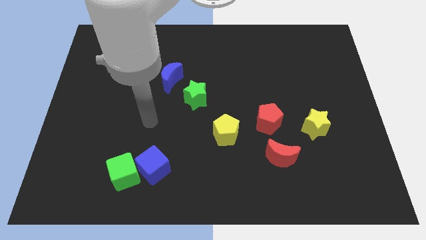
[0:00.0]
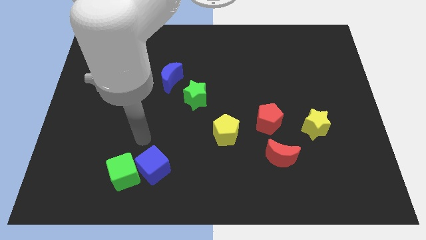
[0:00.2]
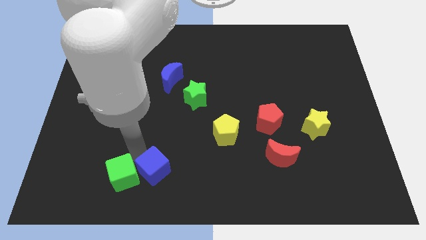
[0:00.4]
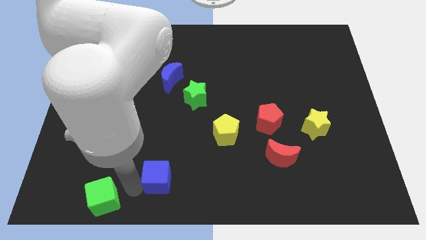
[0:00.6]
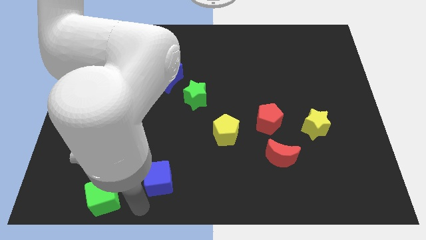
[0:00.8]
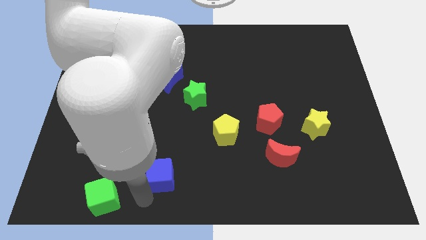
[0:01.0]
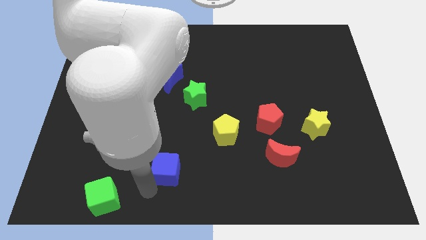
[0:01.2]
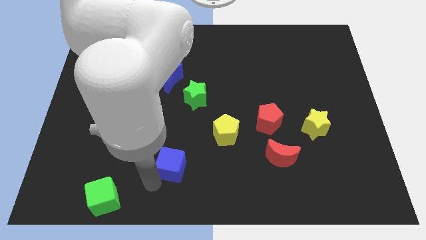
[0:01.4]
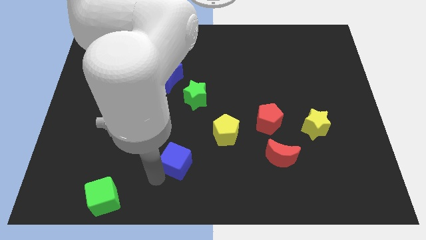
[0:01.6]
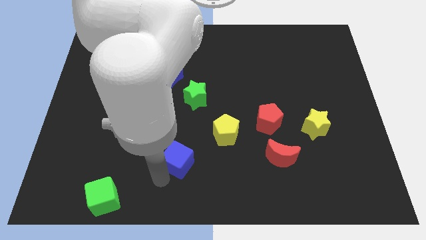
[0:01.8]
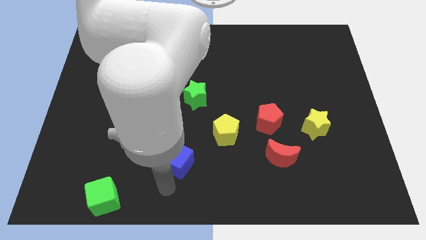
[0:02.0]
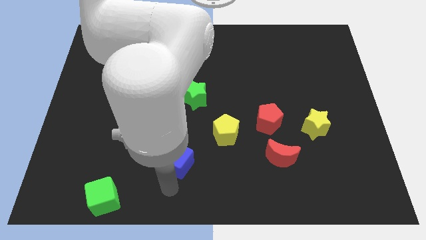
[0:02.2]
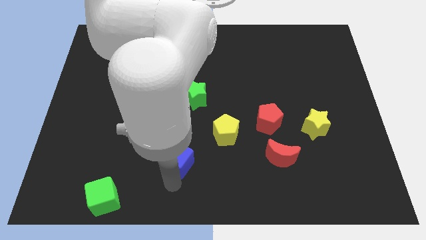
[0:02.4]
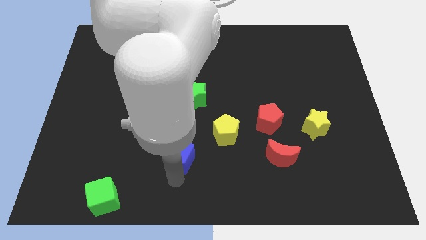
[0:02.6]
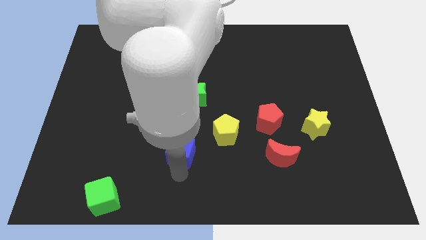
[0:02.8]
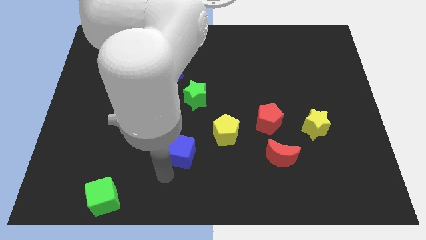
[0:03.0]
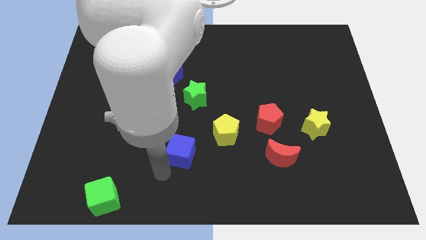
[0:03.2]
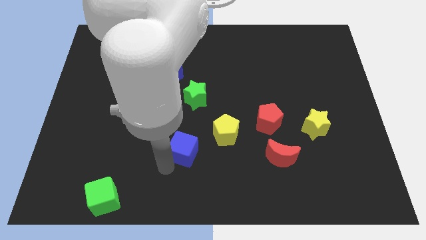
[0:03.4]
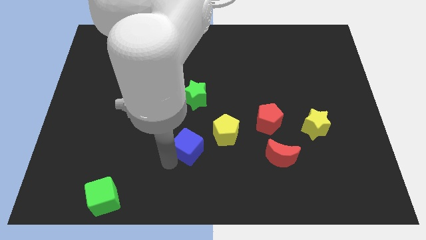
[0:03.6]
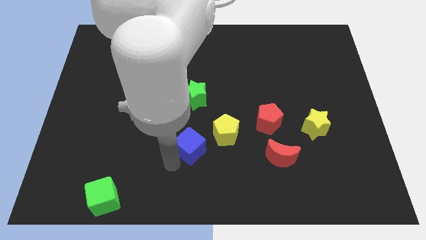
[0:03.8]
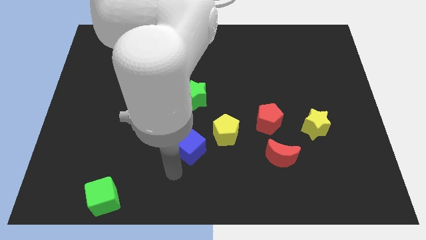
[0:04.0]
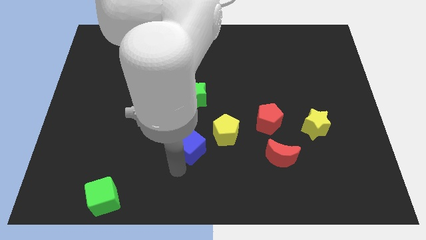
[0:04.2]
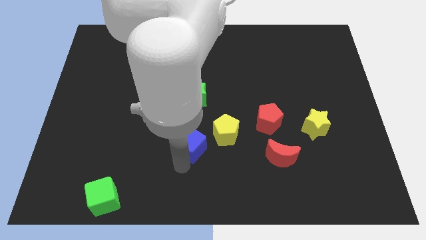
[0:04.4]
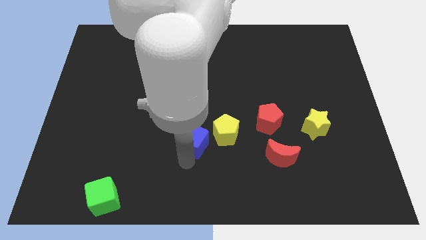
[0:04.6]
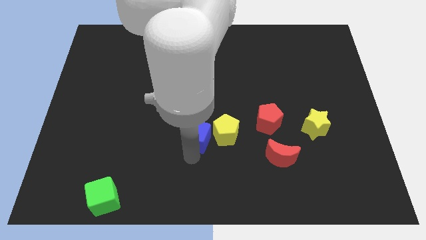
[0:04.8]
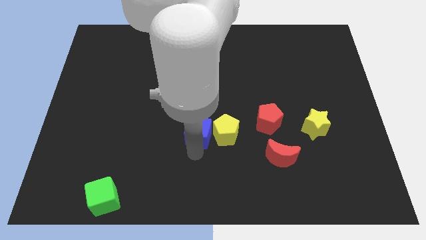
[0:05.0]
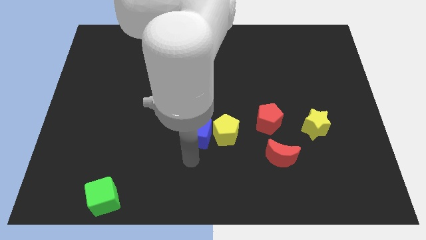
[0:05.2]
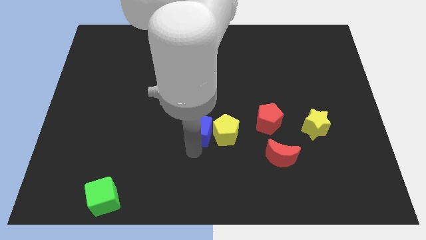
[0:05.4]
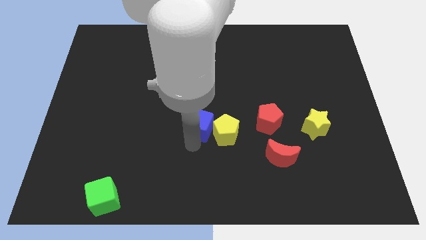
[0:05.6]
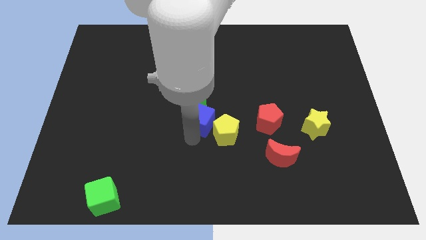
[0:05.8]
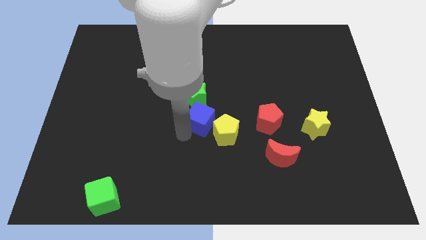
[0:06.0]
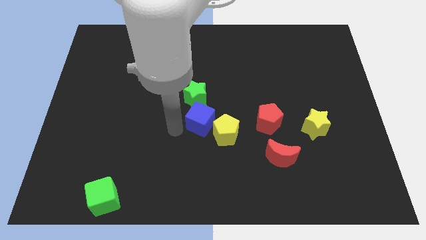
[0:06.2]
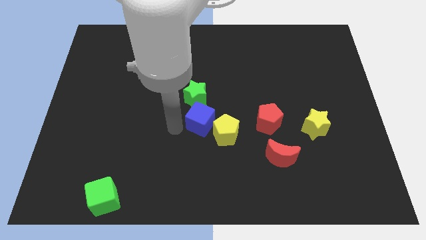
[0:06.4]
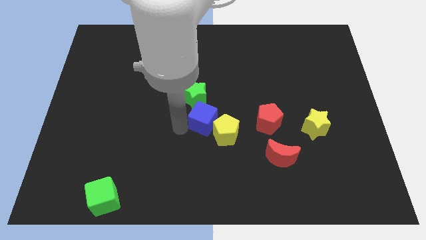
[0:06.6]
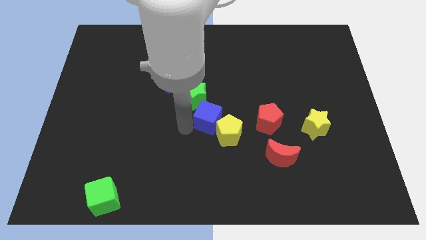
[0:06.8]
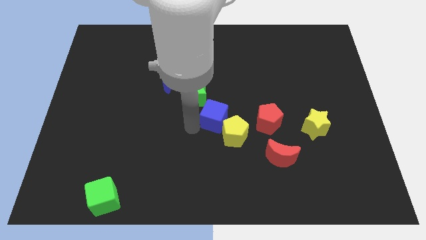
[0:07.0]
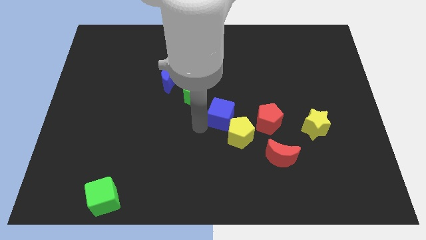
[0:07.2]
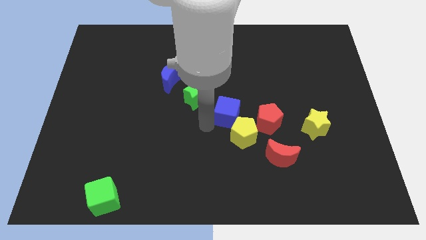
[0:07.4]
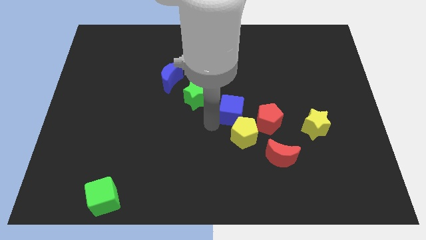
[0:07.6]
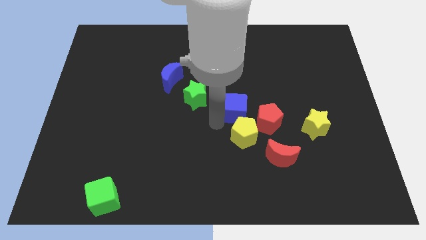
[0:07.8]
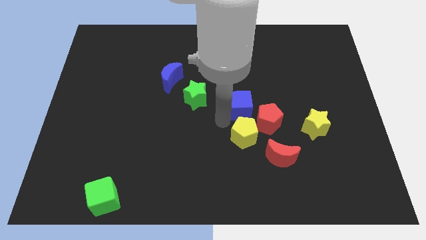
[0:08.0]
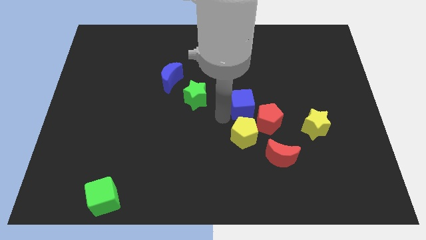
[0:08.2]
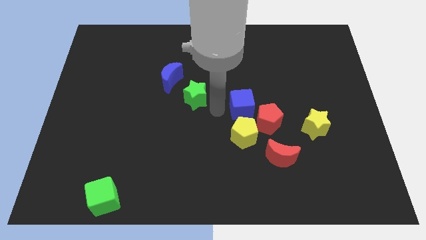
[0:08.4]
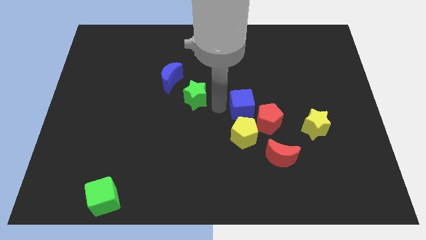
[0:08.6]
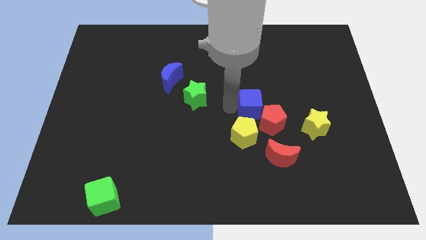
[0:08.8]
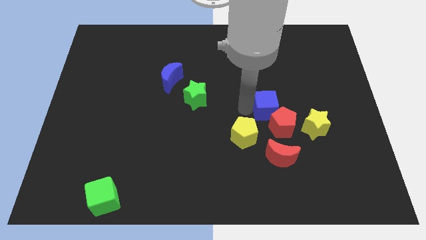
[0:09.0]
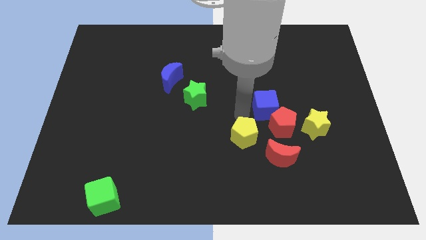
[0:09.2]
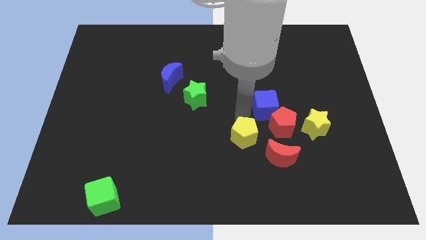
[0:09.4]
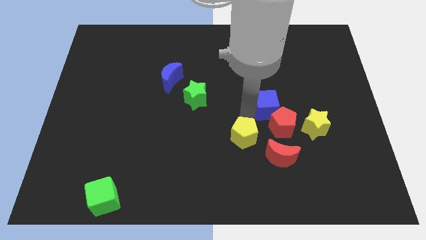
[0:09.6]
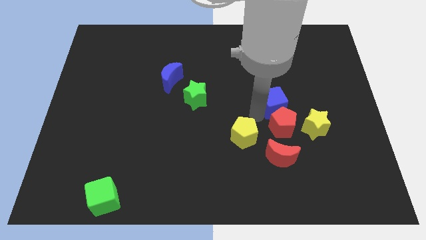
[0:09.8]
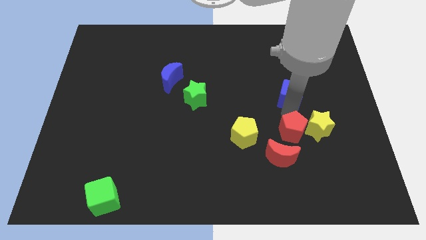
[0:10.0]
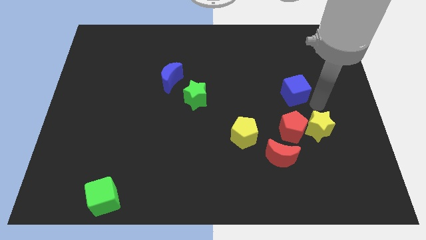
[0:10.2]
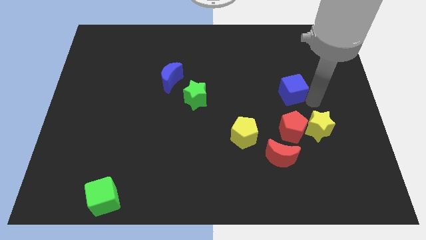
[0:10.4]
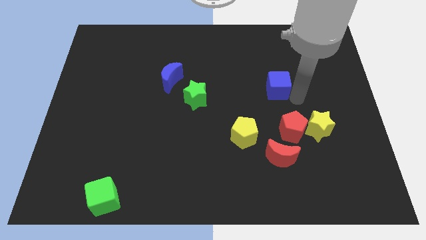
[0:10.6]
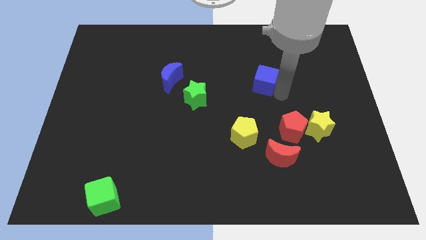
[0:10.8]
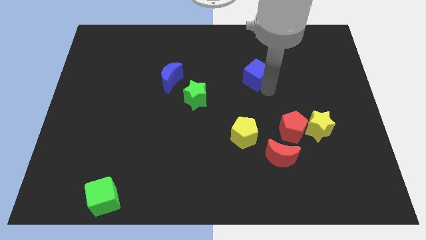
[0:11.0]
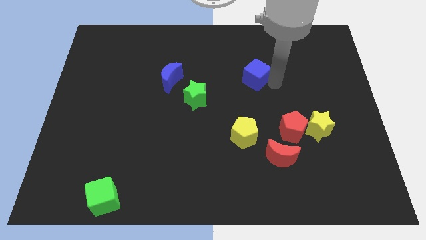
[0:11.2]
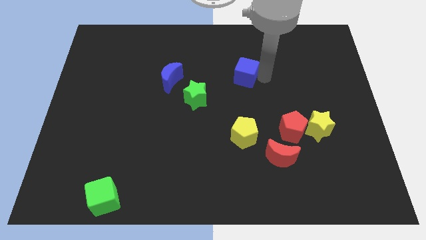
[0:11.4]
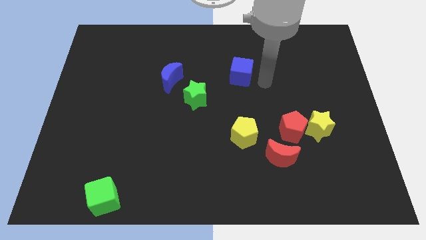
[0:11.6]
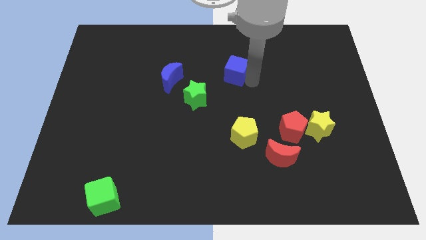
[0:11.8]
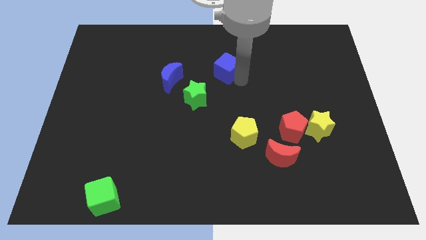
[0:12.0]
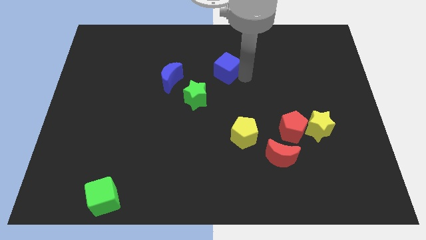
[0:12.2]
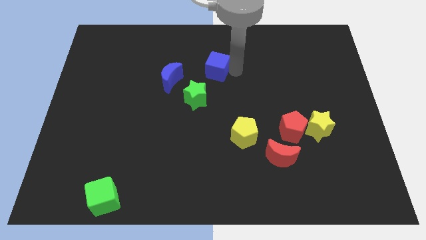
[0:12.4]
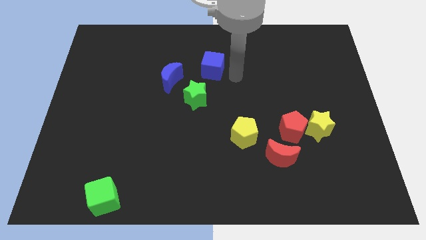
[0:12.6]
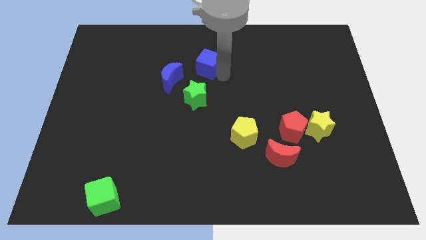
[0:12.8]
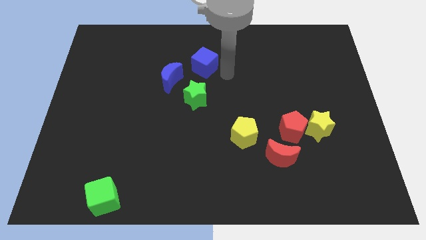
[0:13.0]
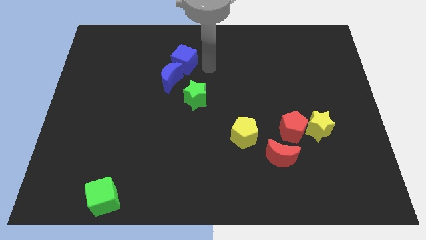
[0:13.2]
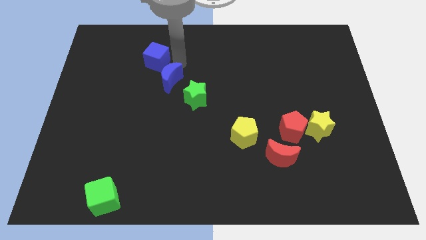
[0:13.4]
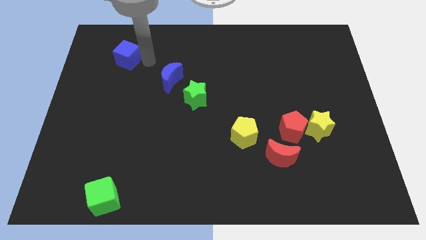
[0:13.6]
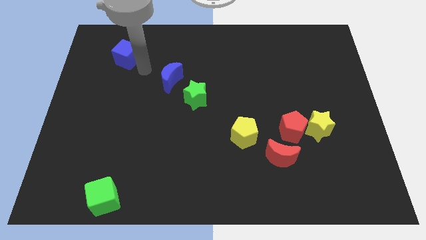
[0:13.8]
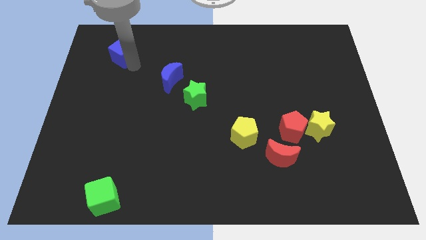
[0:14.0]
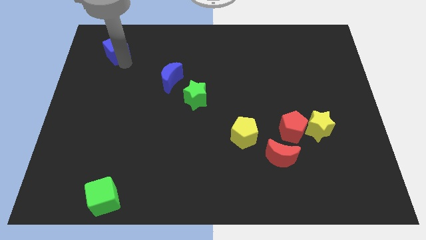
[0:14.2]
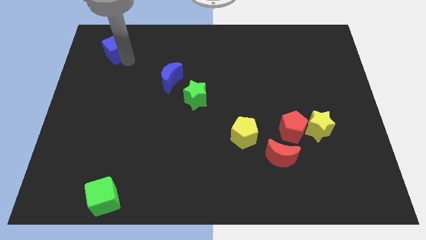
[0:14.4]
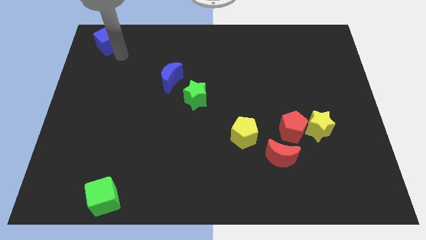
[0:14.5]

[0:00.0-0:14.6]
push the blue cube to the top left
